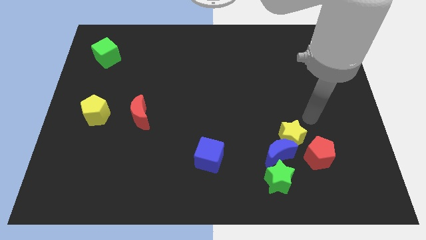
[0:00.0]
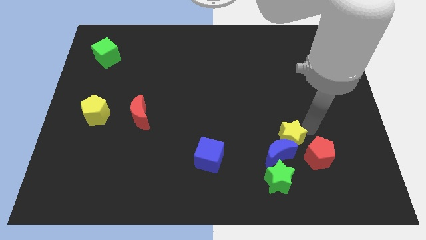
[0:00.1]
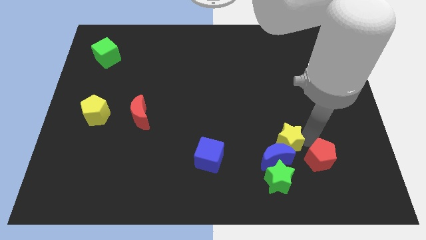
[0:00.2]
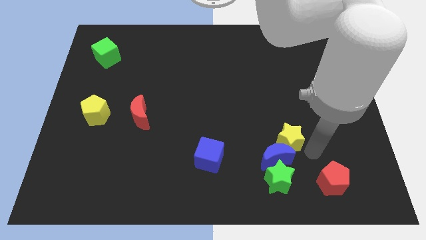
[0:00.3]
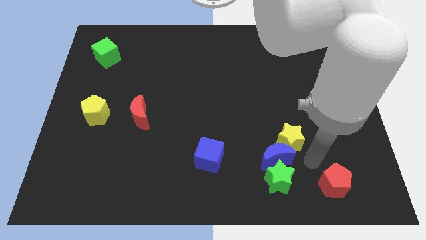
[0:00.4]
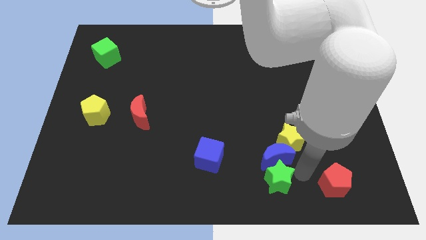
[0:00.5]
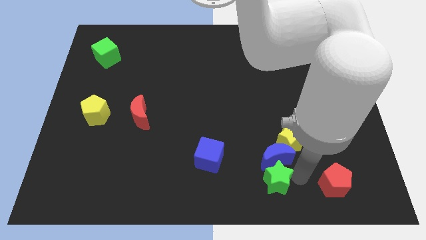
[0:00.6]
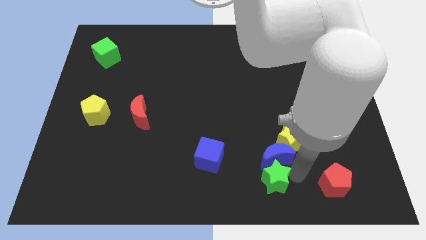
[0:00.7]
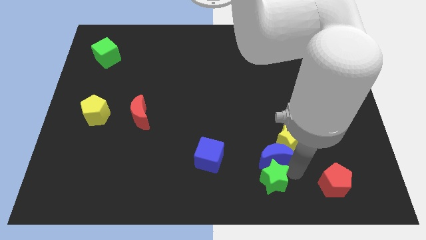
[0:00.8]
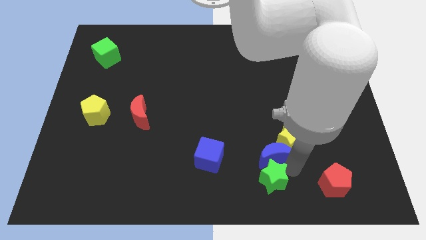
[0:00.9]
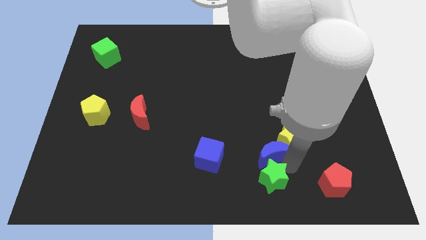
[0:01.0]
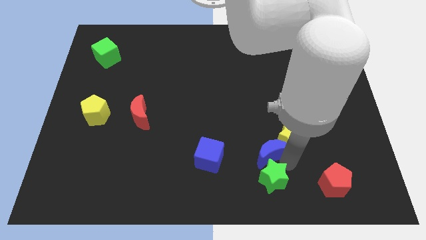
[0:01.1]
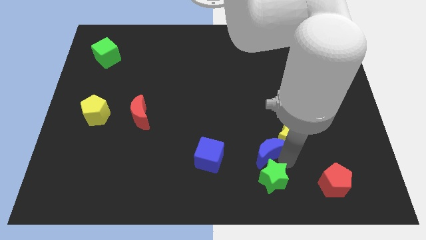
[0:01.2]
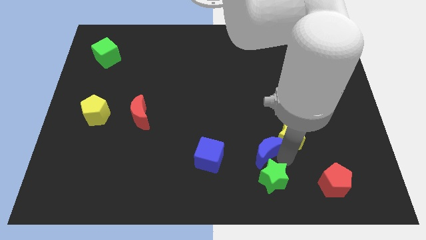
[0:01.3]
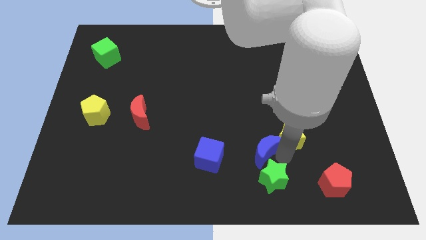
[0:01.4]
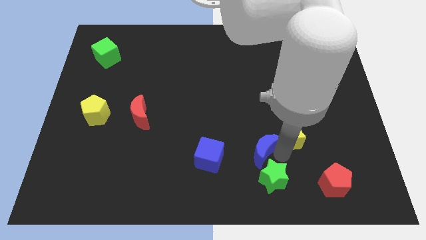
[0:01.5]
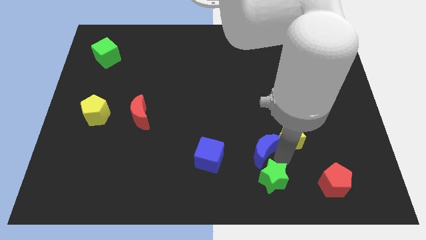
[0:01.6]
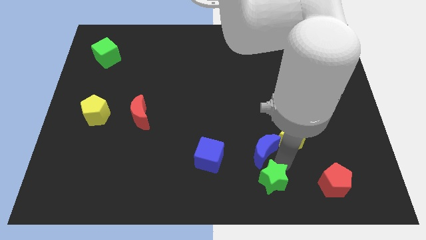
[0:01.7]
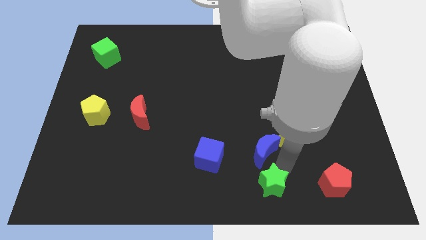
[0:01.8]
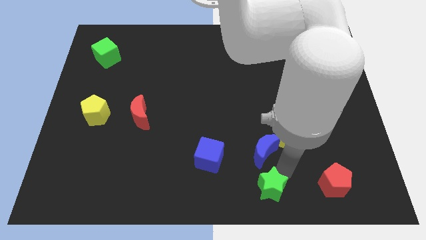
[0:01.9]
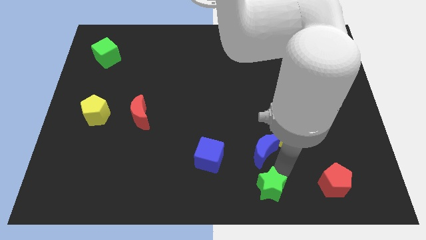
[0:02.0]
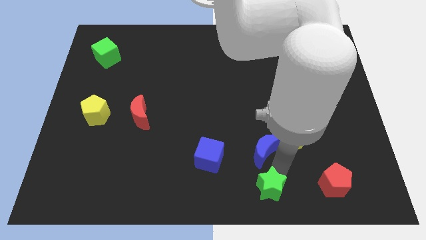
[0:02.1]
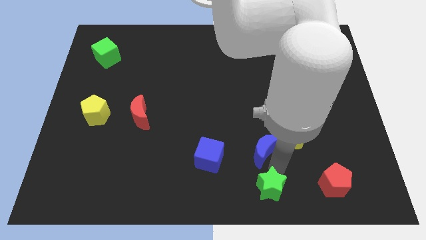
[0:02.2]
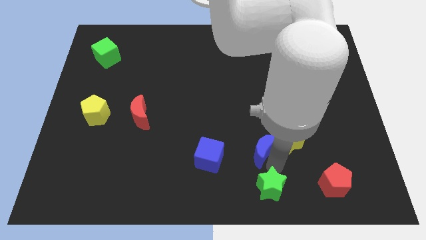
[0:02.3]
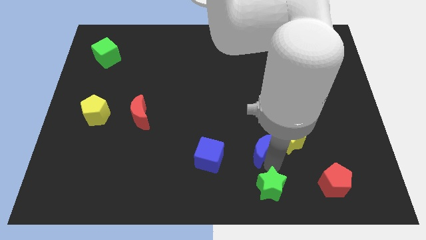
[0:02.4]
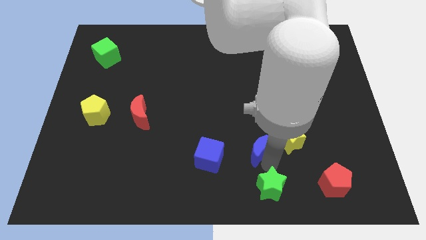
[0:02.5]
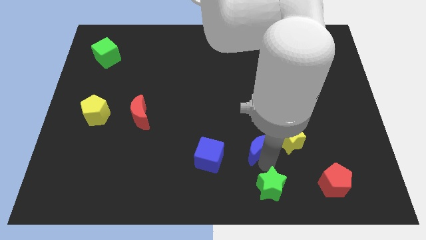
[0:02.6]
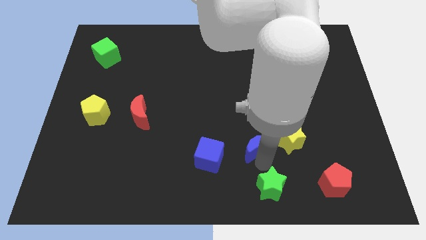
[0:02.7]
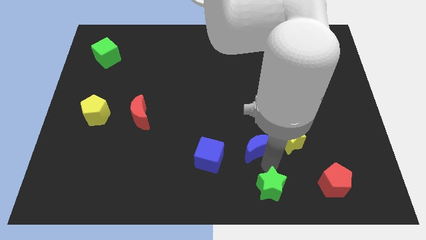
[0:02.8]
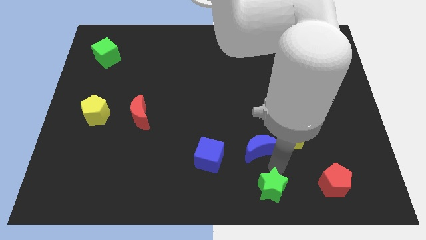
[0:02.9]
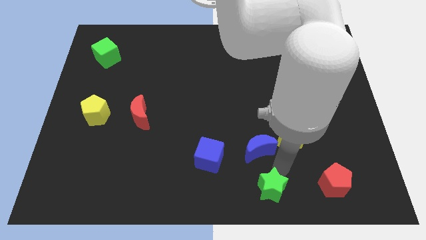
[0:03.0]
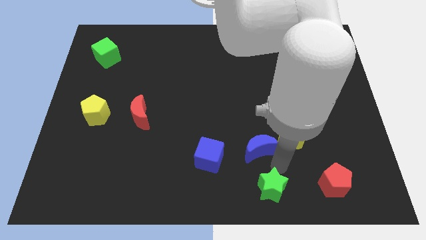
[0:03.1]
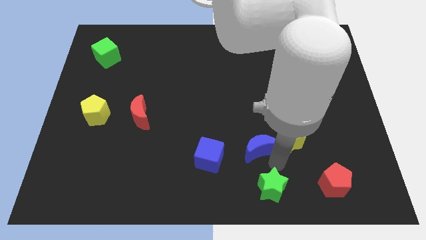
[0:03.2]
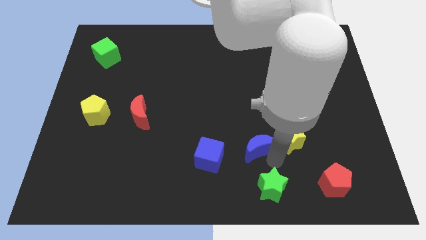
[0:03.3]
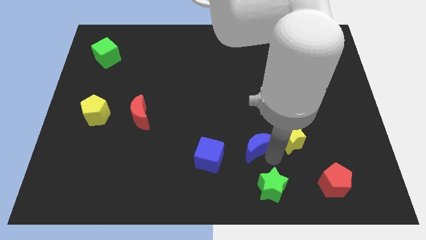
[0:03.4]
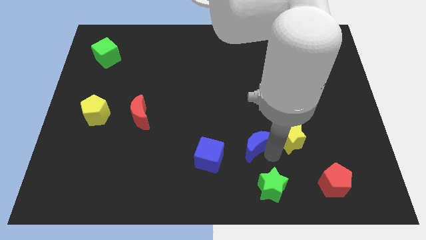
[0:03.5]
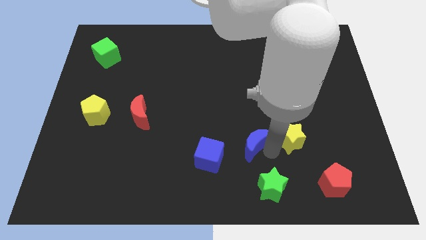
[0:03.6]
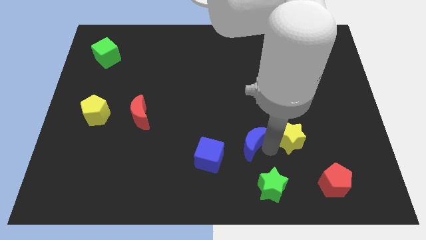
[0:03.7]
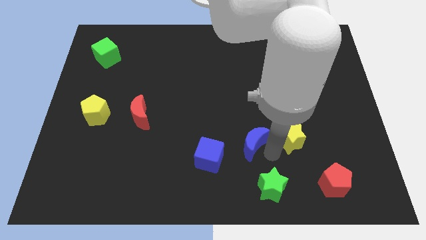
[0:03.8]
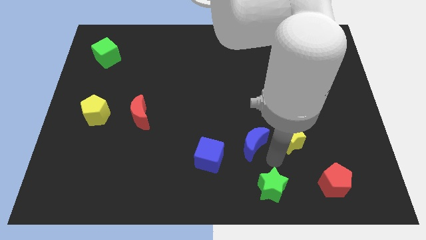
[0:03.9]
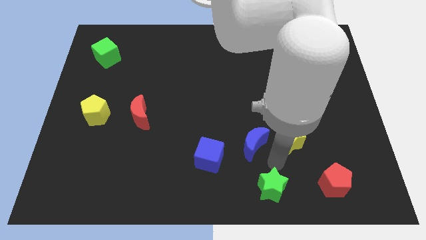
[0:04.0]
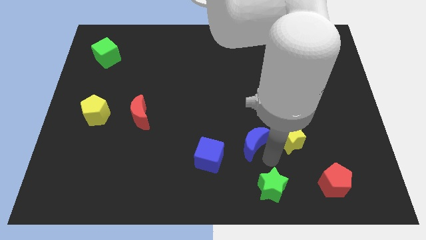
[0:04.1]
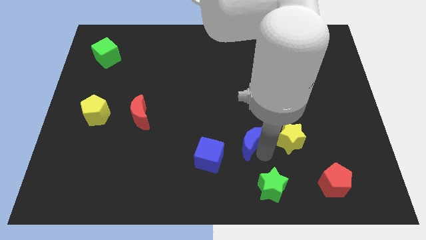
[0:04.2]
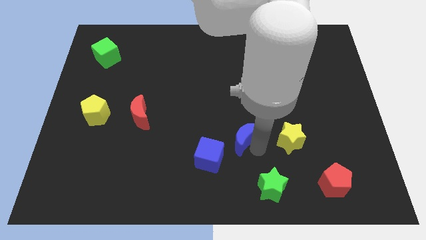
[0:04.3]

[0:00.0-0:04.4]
slightly push the blue moon up and then left

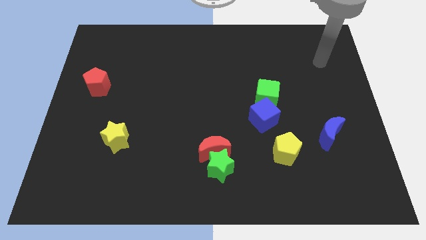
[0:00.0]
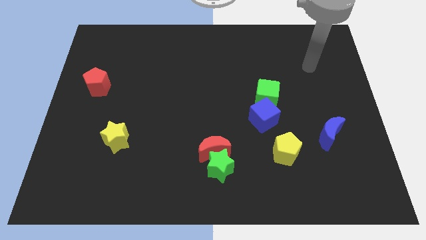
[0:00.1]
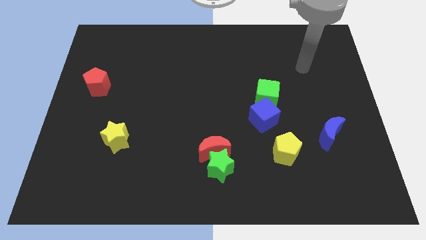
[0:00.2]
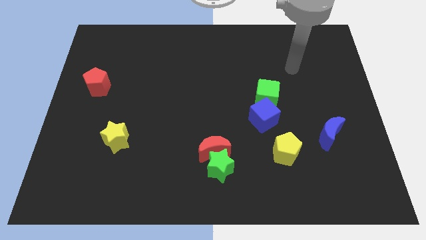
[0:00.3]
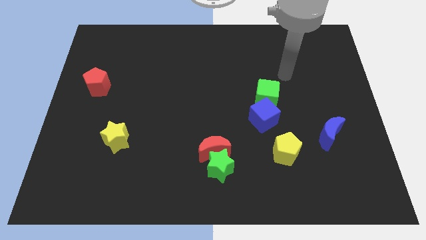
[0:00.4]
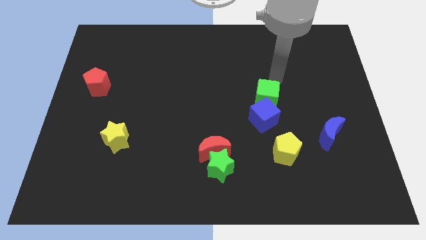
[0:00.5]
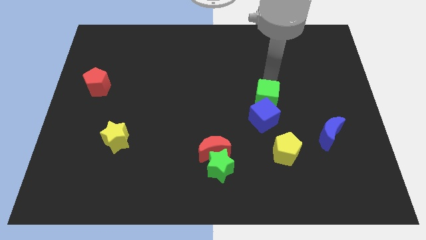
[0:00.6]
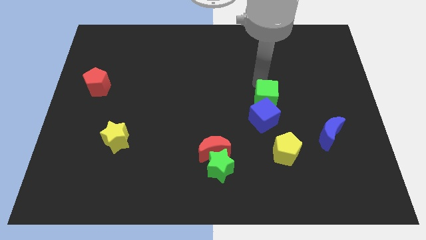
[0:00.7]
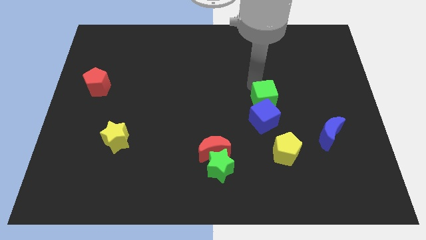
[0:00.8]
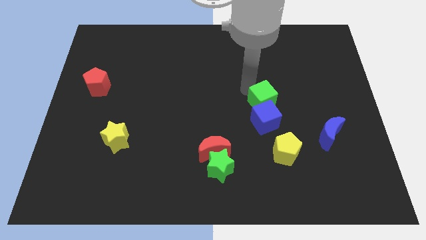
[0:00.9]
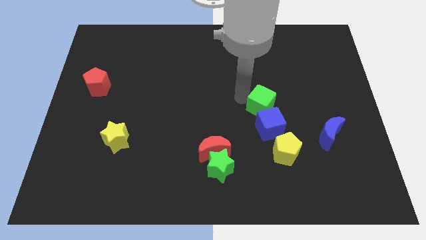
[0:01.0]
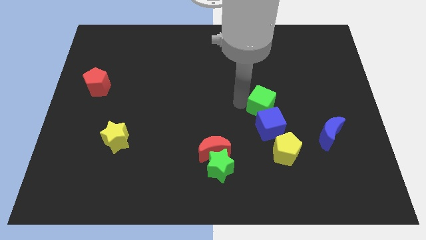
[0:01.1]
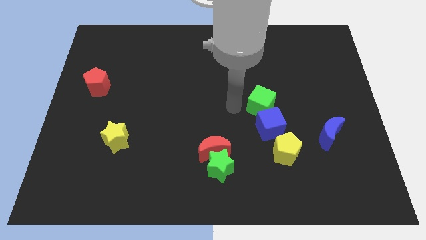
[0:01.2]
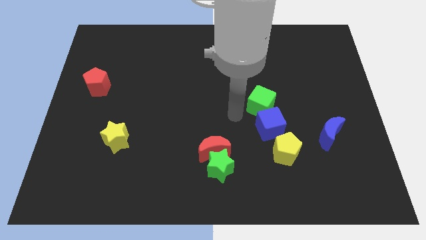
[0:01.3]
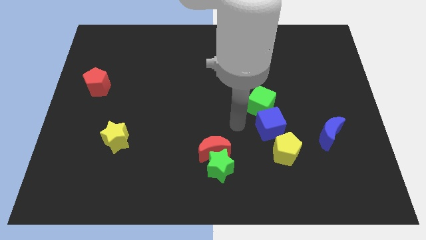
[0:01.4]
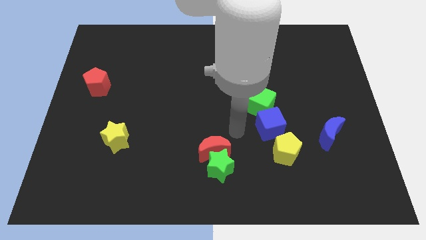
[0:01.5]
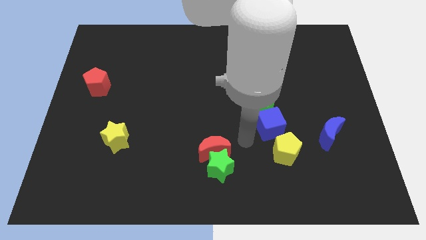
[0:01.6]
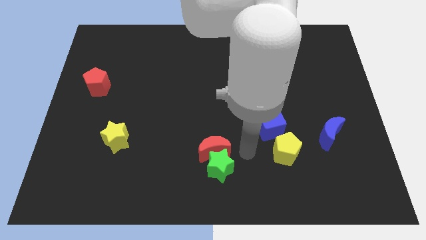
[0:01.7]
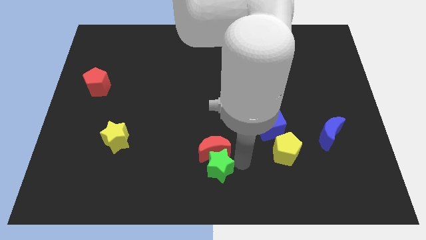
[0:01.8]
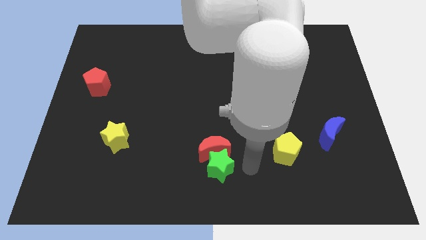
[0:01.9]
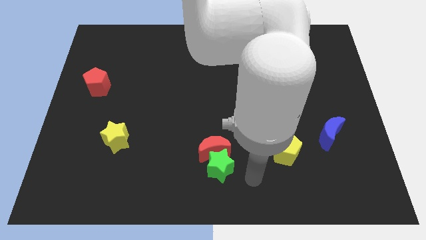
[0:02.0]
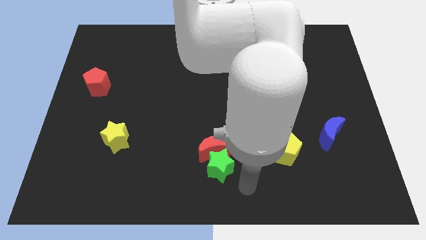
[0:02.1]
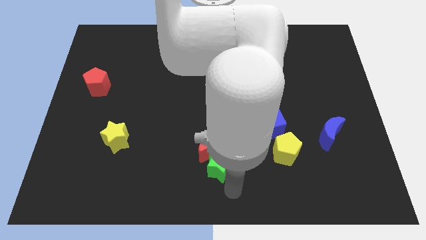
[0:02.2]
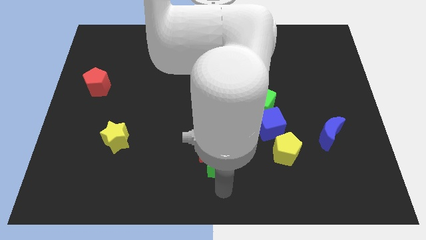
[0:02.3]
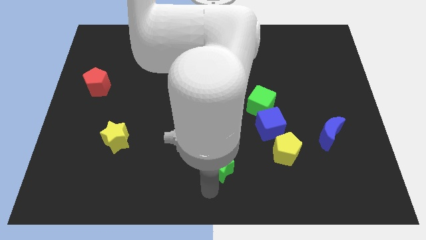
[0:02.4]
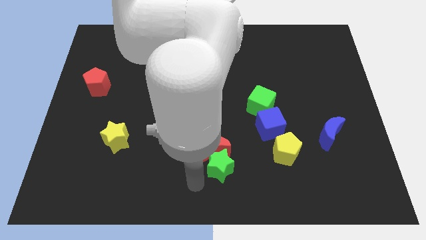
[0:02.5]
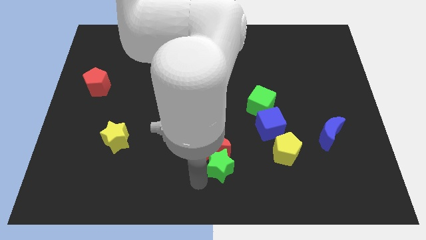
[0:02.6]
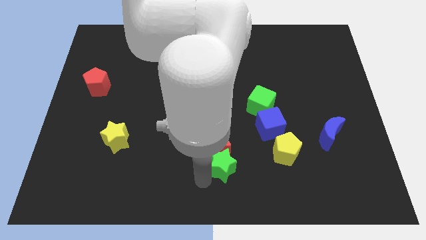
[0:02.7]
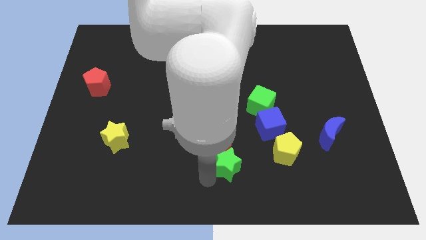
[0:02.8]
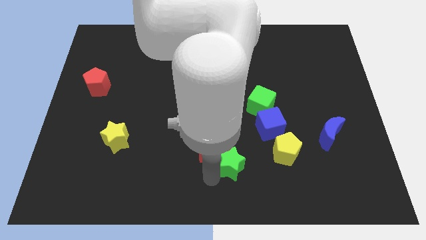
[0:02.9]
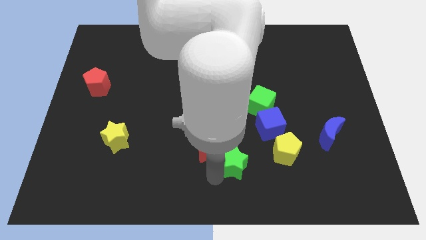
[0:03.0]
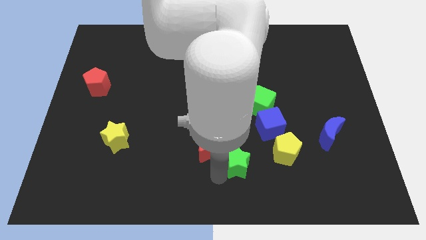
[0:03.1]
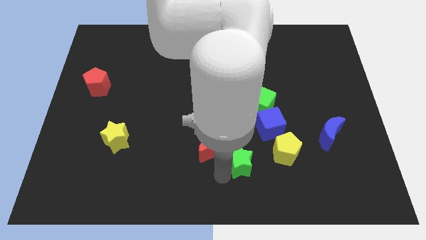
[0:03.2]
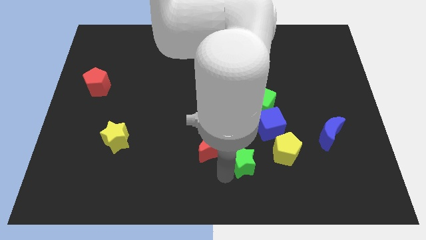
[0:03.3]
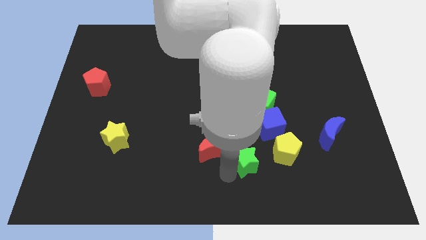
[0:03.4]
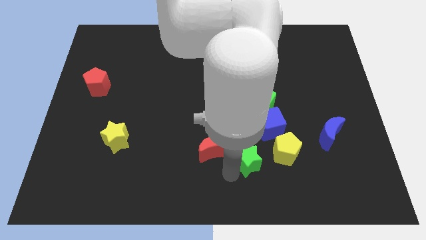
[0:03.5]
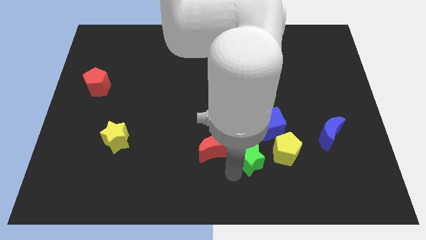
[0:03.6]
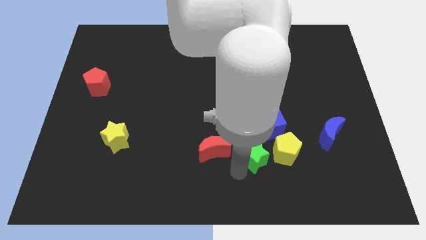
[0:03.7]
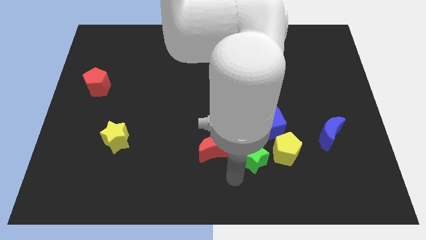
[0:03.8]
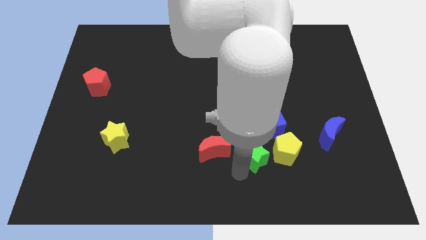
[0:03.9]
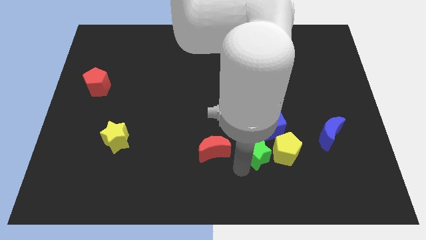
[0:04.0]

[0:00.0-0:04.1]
slide the green star diagonally up and right a little
